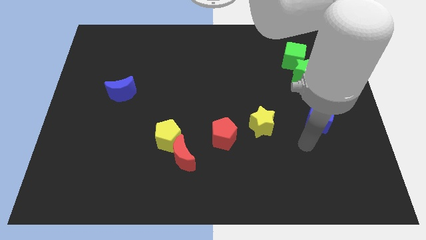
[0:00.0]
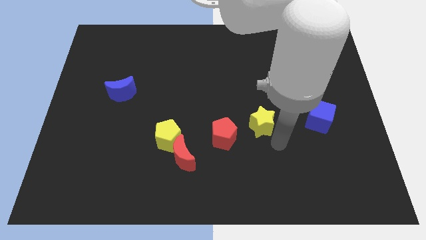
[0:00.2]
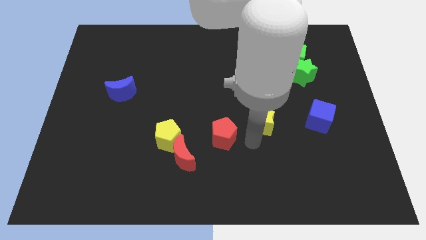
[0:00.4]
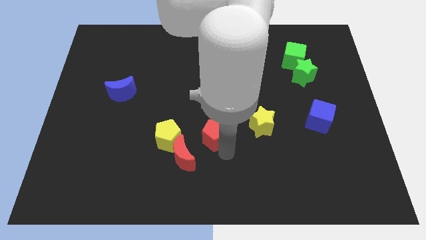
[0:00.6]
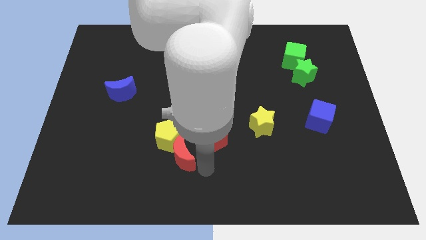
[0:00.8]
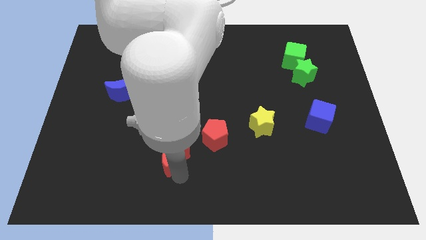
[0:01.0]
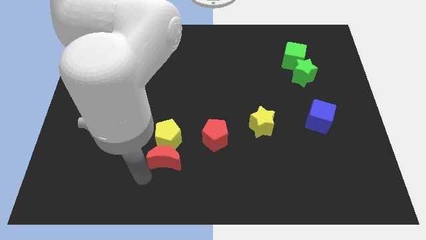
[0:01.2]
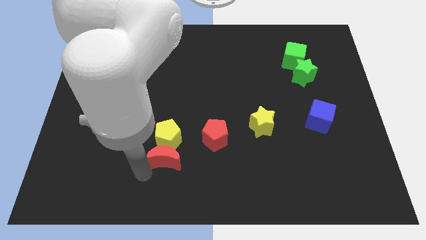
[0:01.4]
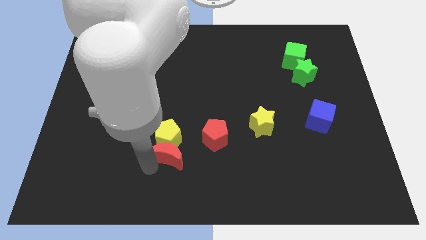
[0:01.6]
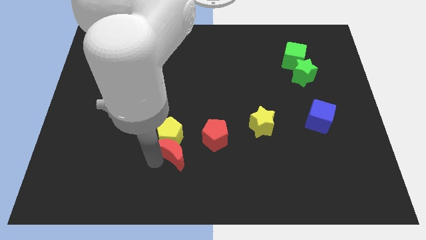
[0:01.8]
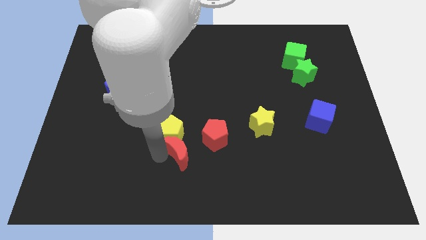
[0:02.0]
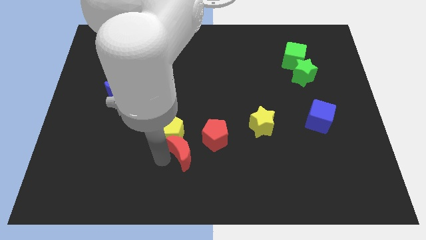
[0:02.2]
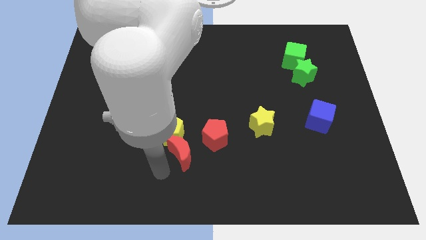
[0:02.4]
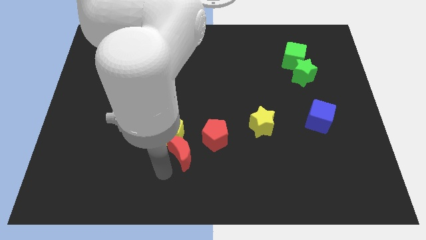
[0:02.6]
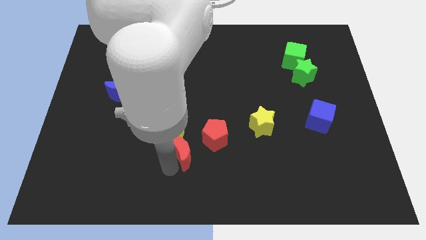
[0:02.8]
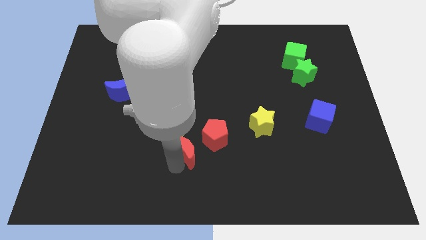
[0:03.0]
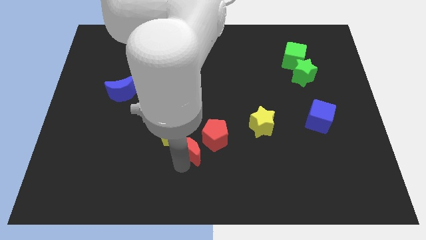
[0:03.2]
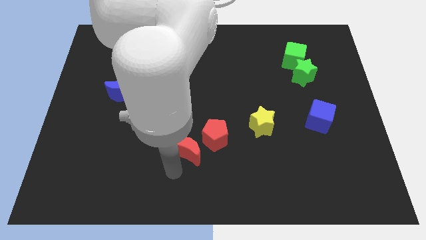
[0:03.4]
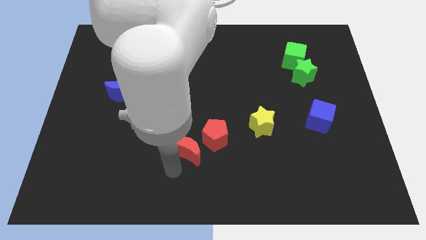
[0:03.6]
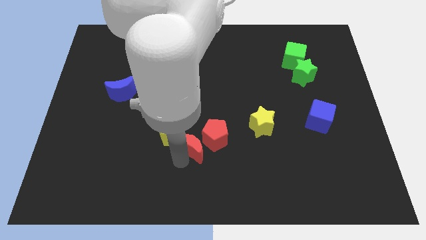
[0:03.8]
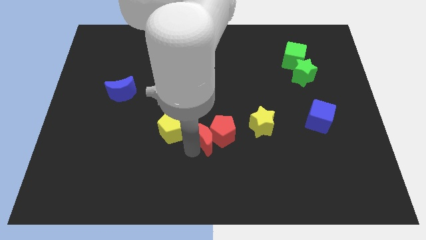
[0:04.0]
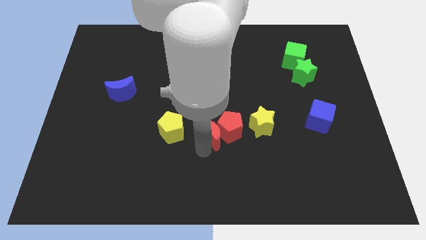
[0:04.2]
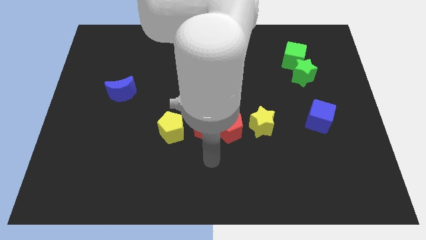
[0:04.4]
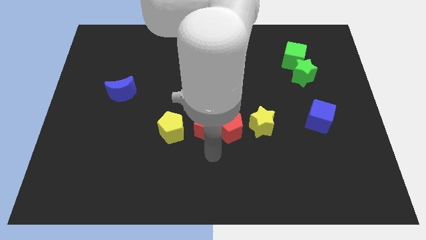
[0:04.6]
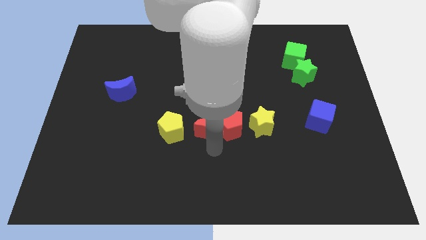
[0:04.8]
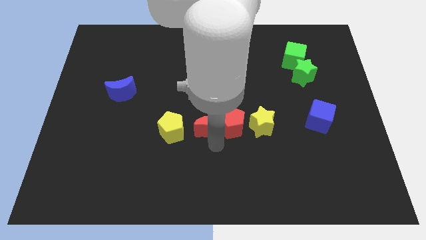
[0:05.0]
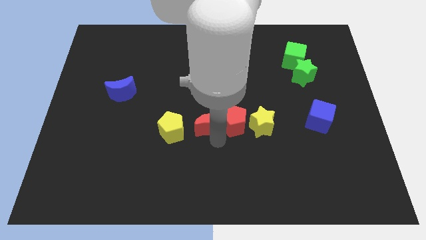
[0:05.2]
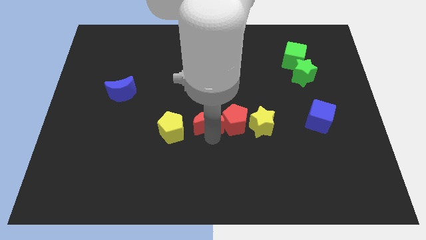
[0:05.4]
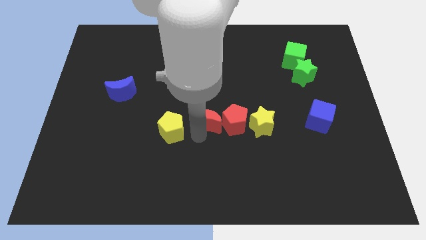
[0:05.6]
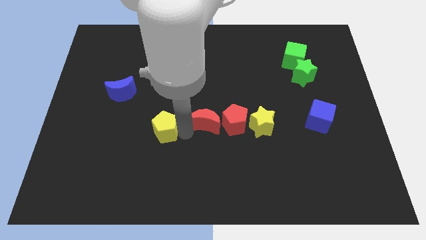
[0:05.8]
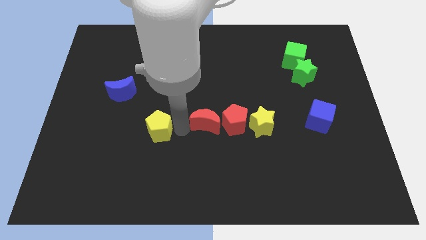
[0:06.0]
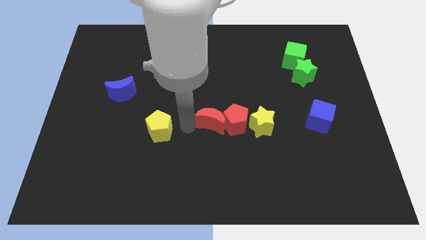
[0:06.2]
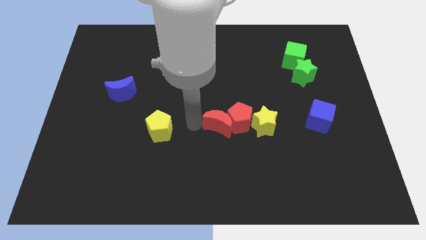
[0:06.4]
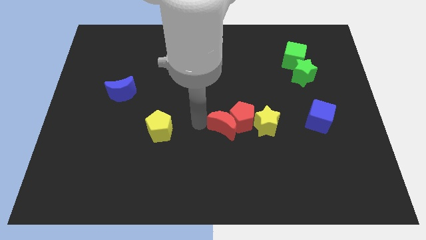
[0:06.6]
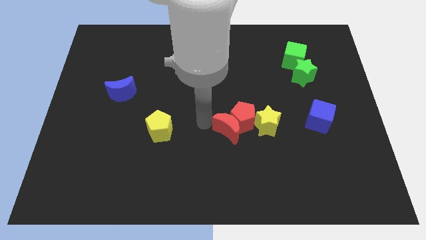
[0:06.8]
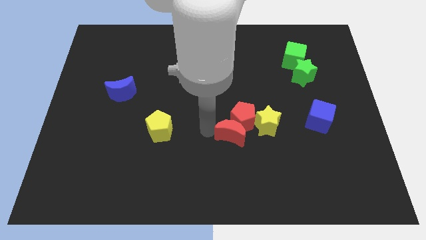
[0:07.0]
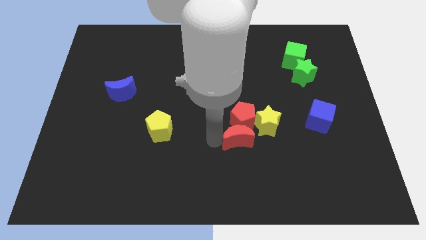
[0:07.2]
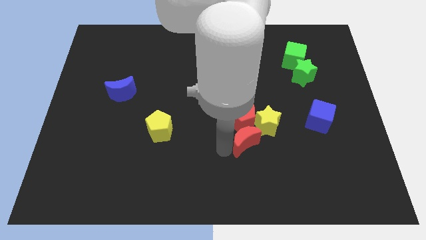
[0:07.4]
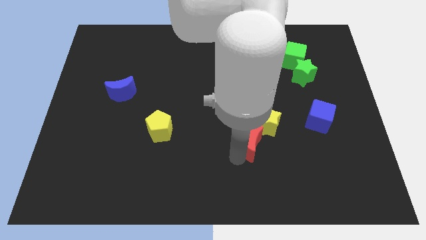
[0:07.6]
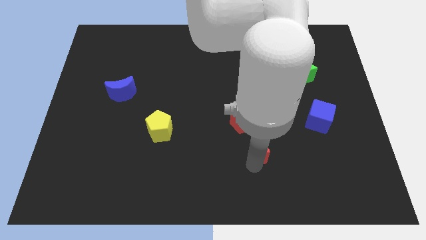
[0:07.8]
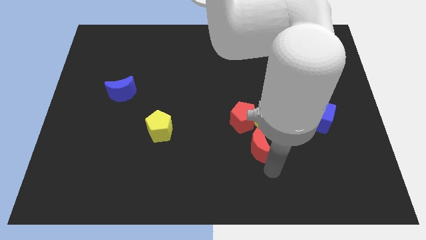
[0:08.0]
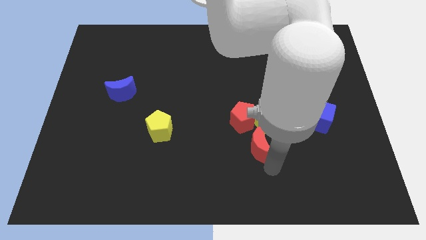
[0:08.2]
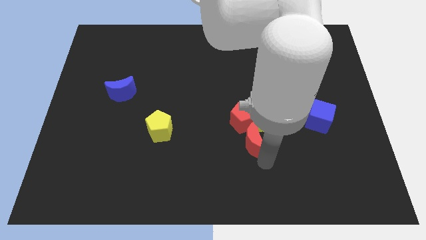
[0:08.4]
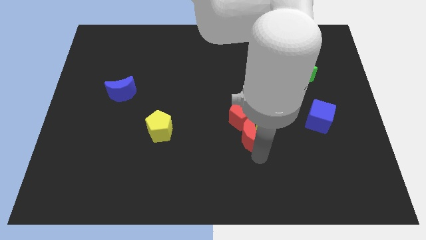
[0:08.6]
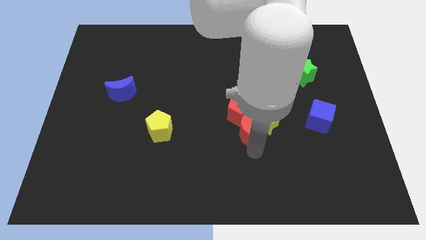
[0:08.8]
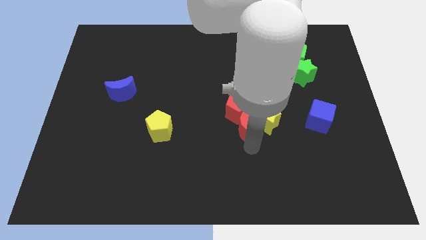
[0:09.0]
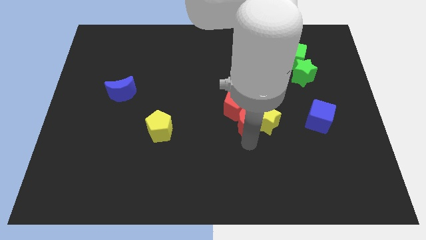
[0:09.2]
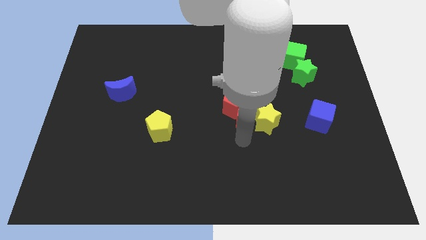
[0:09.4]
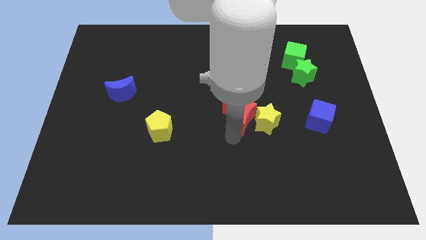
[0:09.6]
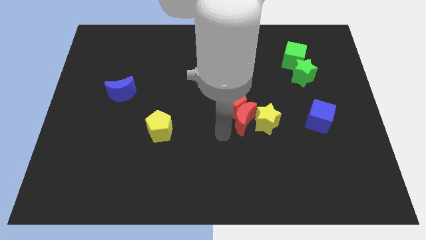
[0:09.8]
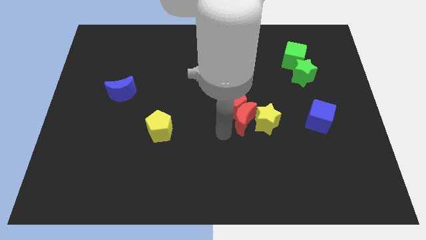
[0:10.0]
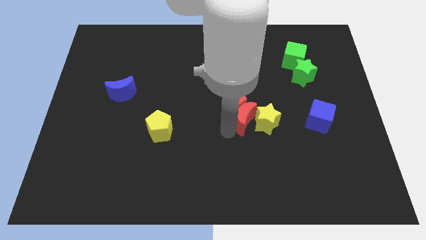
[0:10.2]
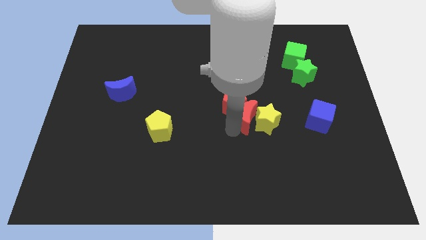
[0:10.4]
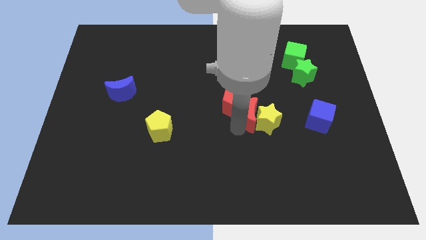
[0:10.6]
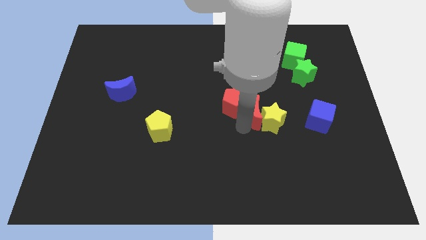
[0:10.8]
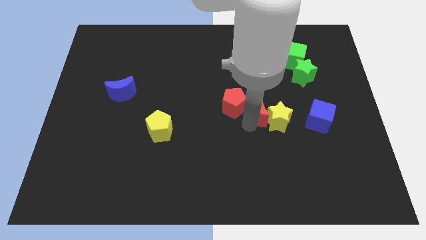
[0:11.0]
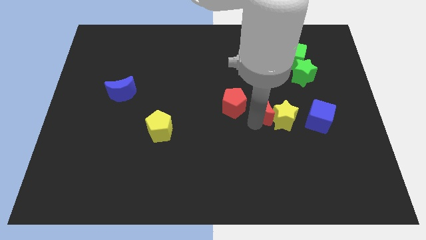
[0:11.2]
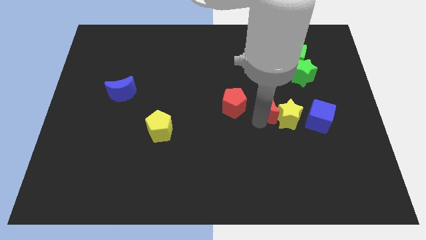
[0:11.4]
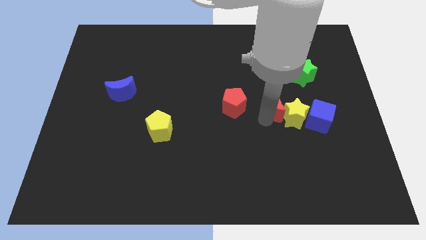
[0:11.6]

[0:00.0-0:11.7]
move the red moon to the top left side of the blue cube

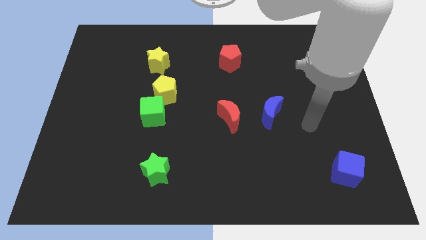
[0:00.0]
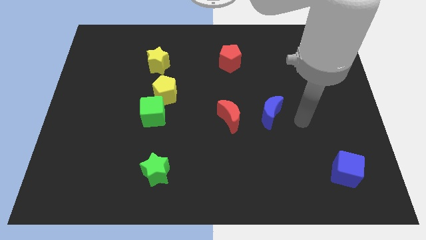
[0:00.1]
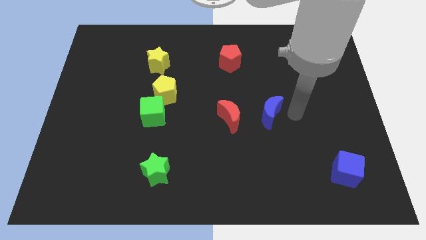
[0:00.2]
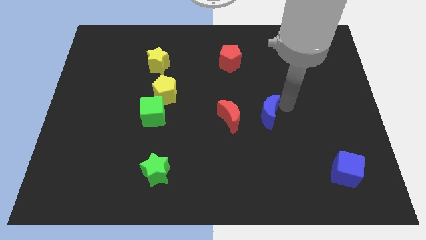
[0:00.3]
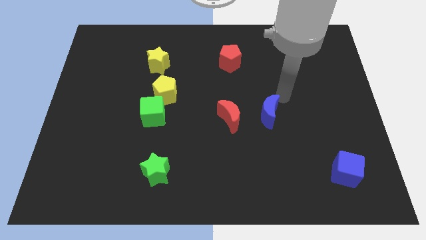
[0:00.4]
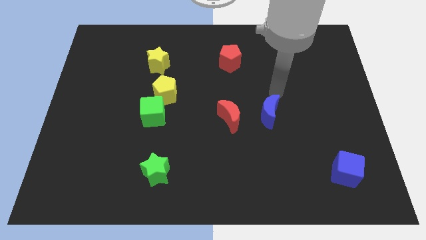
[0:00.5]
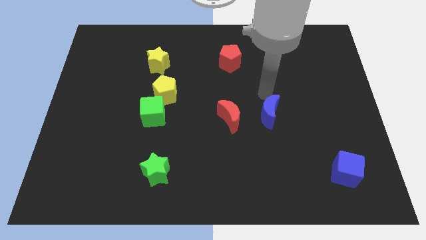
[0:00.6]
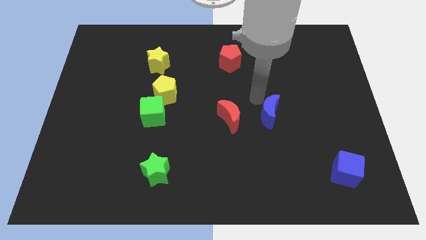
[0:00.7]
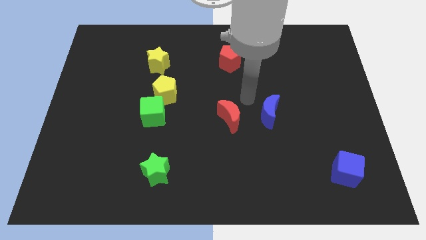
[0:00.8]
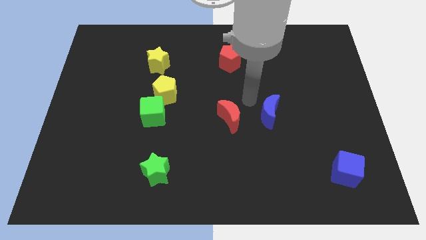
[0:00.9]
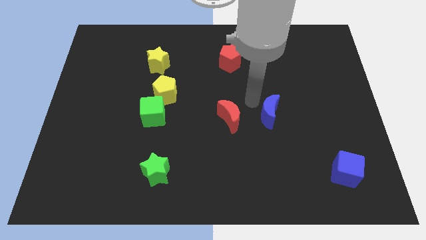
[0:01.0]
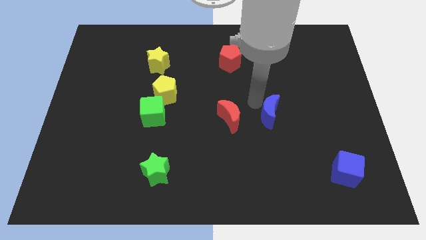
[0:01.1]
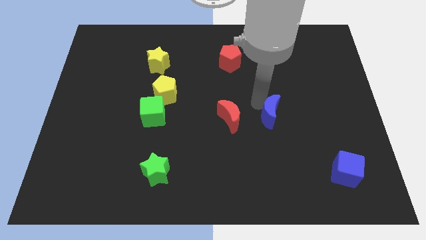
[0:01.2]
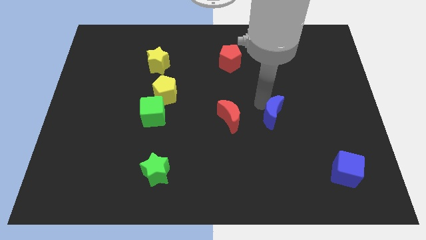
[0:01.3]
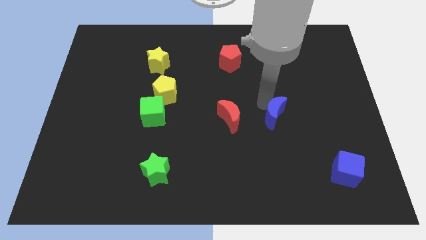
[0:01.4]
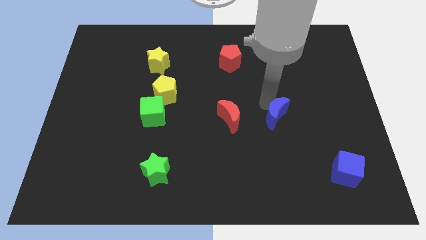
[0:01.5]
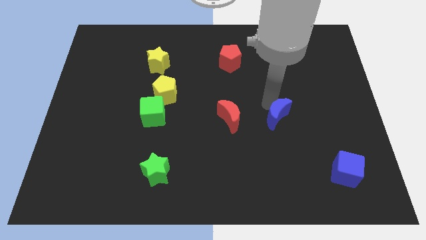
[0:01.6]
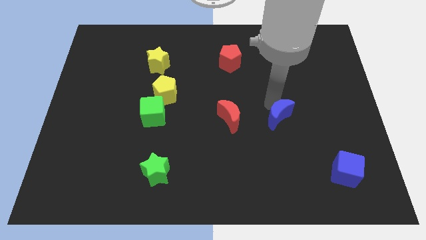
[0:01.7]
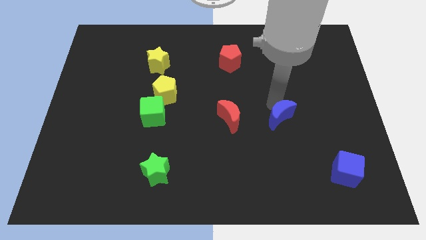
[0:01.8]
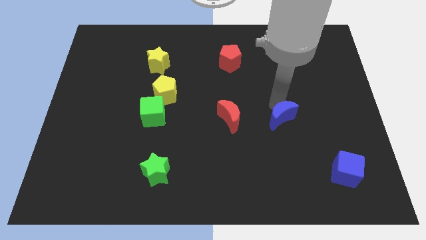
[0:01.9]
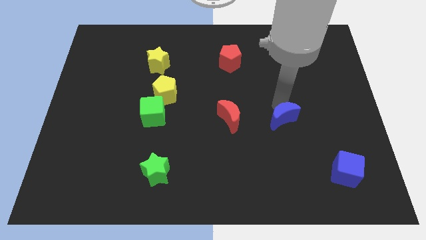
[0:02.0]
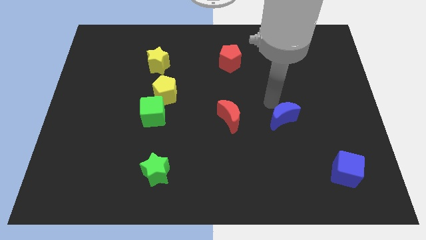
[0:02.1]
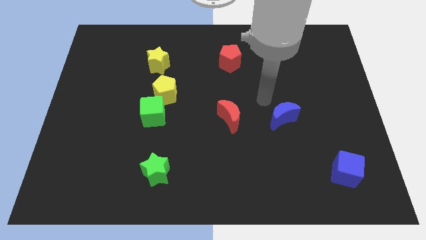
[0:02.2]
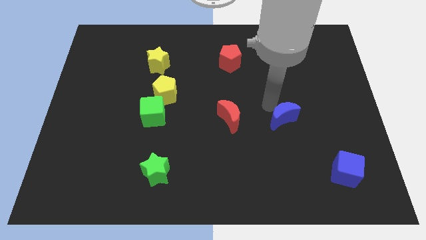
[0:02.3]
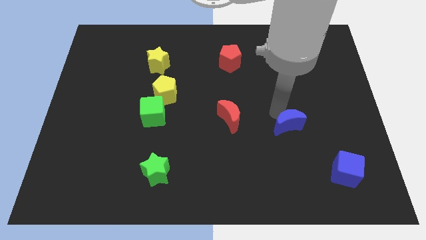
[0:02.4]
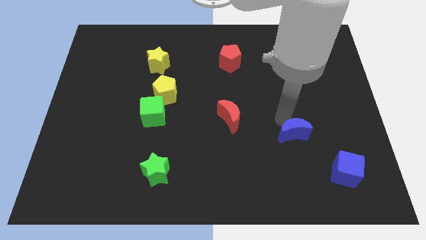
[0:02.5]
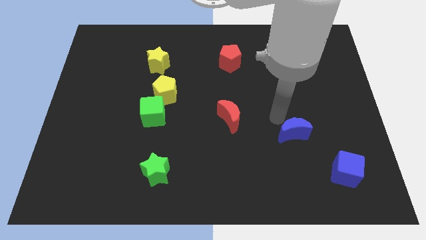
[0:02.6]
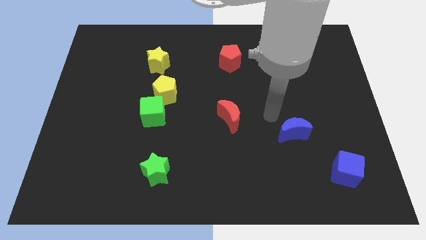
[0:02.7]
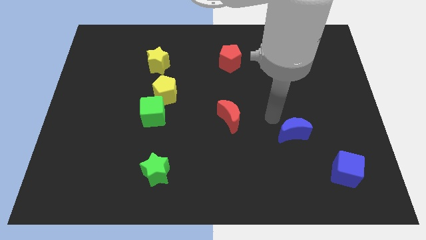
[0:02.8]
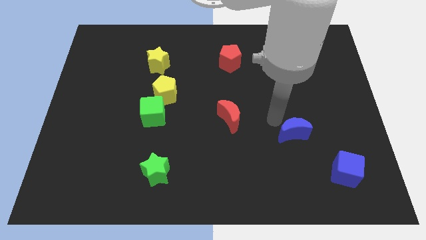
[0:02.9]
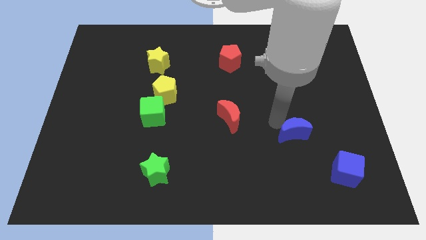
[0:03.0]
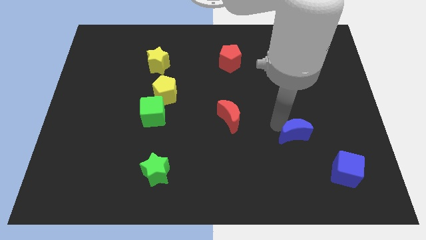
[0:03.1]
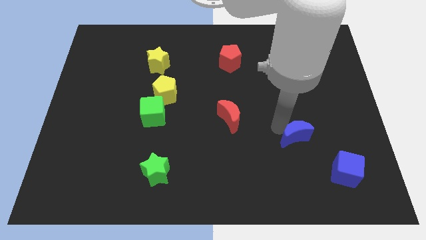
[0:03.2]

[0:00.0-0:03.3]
move the blue moon to the top left side of the blue cube
